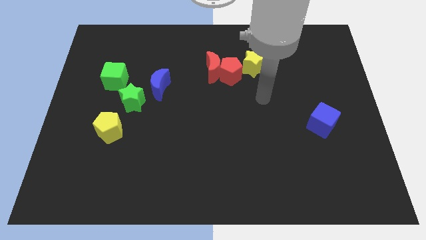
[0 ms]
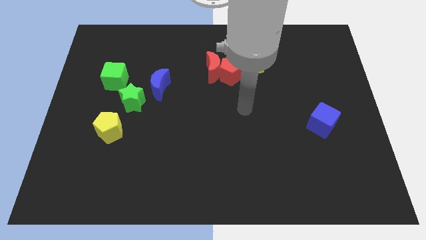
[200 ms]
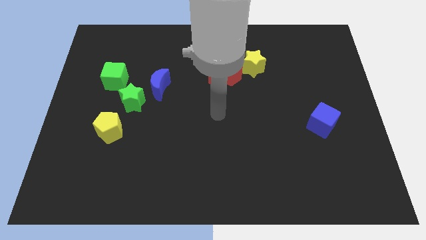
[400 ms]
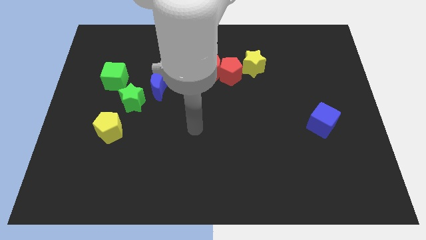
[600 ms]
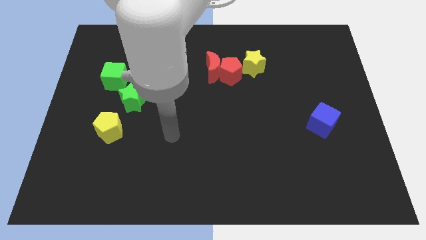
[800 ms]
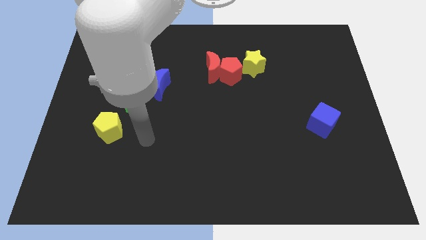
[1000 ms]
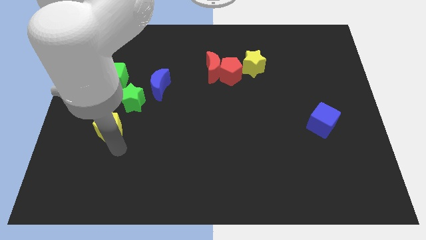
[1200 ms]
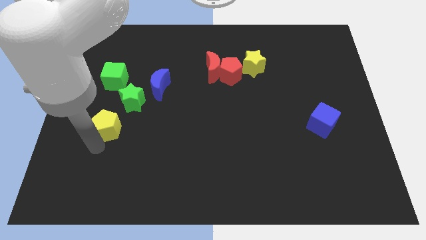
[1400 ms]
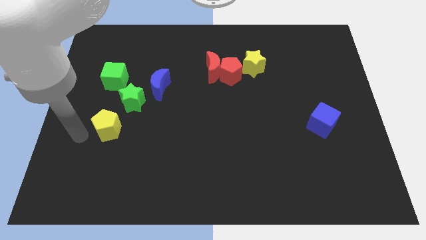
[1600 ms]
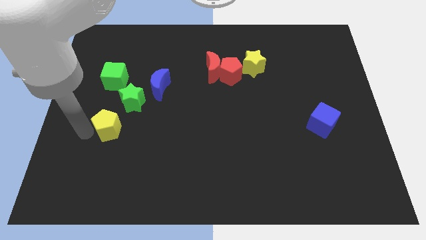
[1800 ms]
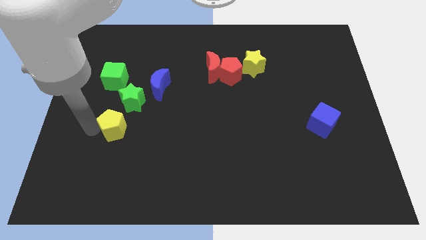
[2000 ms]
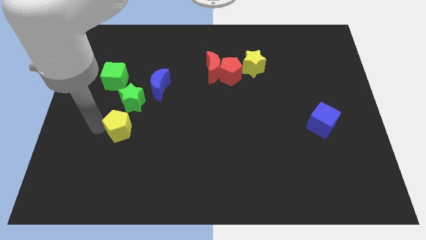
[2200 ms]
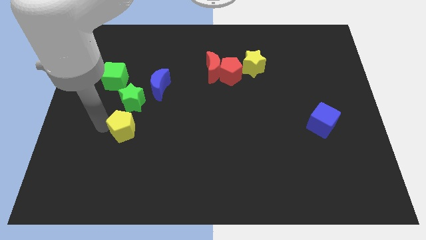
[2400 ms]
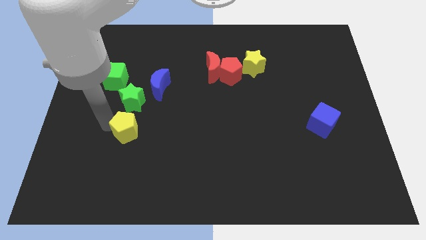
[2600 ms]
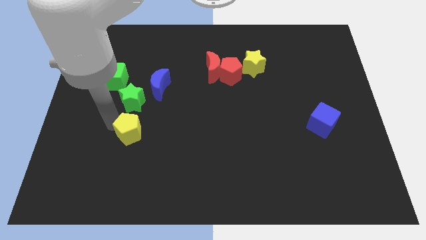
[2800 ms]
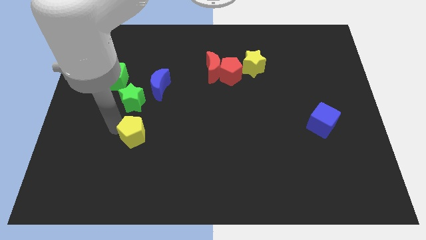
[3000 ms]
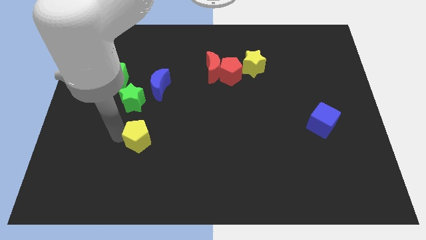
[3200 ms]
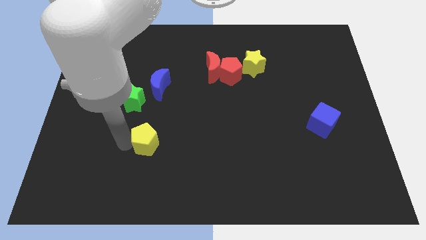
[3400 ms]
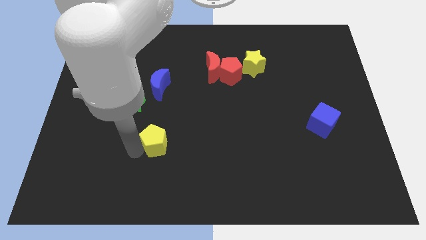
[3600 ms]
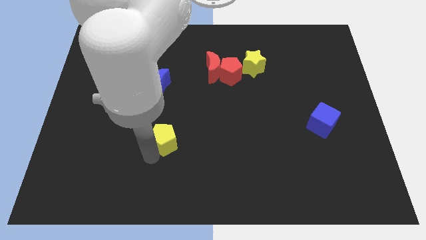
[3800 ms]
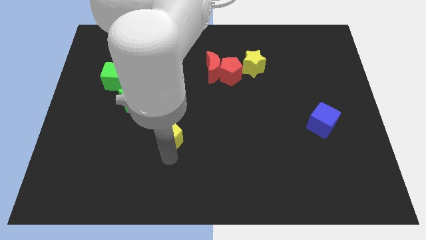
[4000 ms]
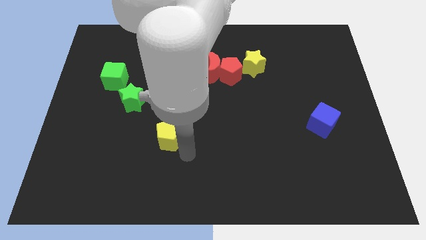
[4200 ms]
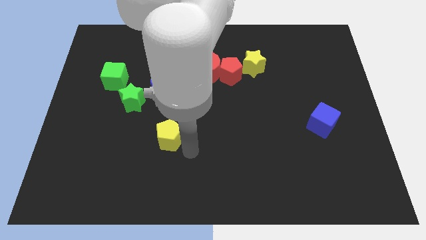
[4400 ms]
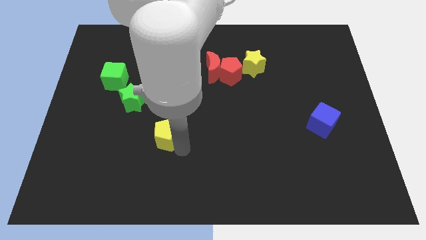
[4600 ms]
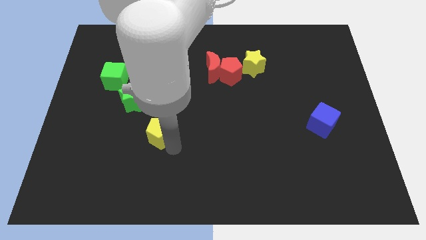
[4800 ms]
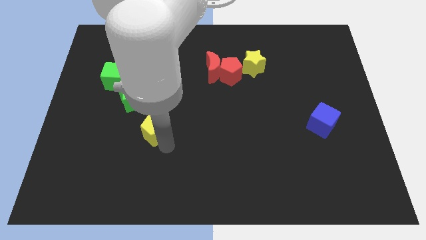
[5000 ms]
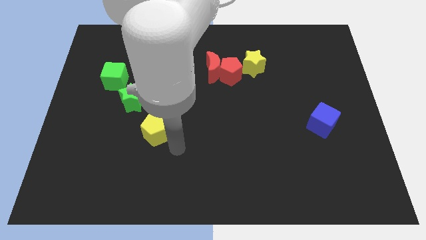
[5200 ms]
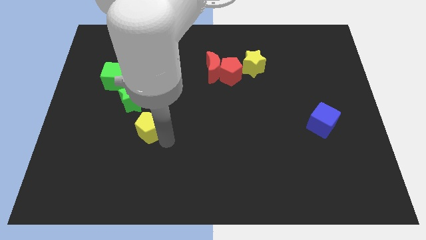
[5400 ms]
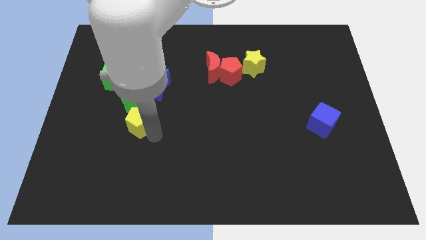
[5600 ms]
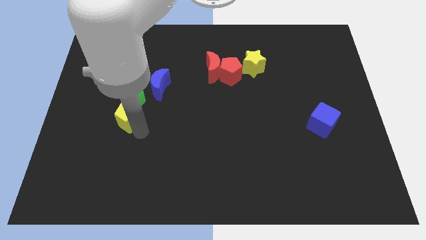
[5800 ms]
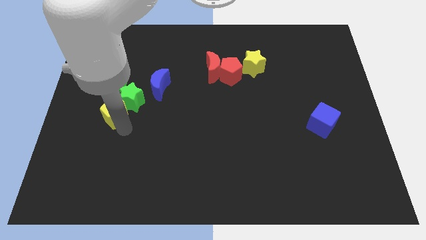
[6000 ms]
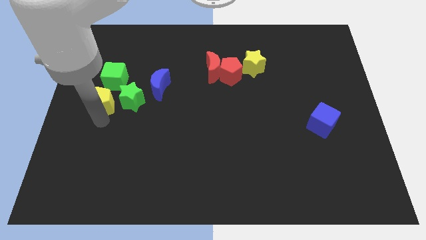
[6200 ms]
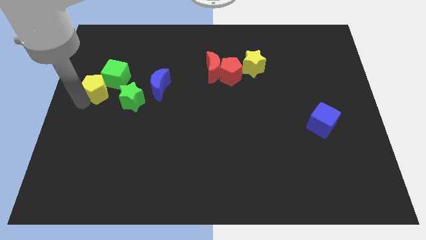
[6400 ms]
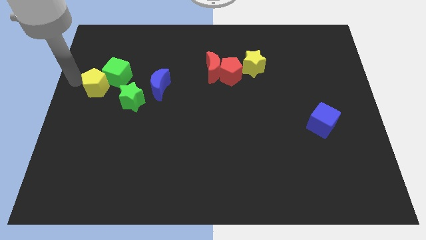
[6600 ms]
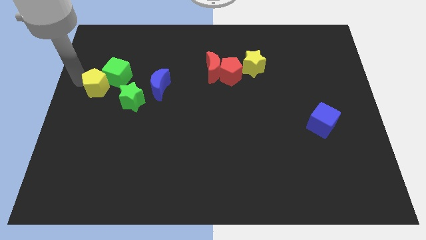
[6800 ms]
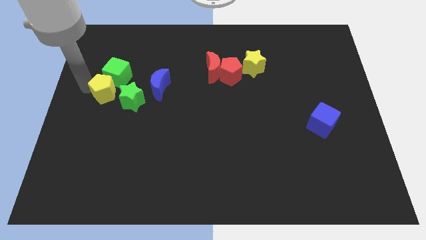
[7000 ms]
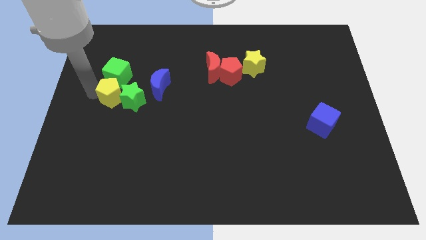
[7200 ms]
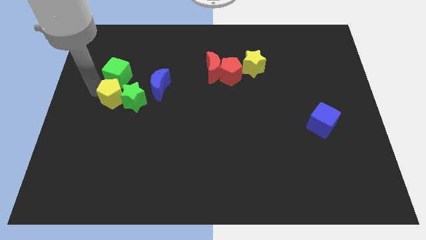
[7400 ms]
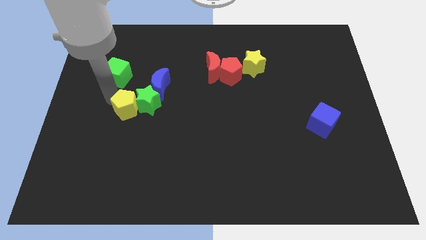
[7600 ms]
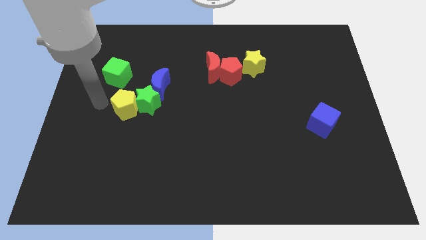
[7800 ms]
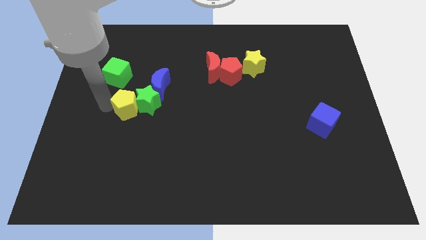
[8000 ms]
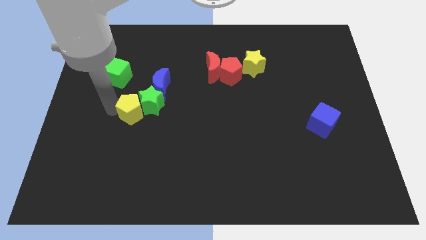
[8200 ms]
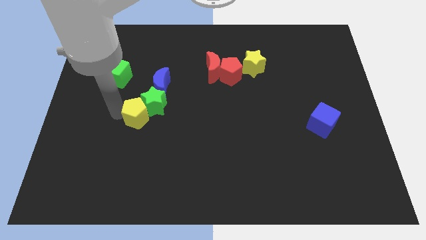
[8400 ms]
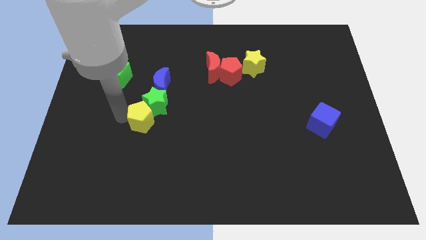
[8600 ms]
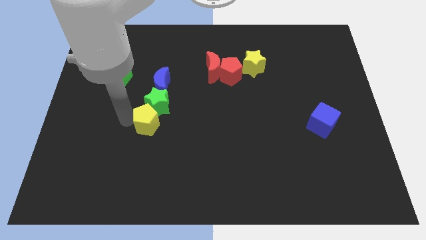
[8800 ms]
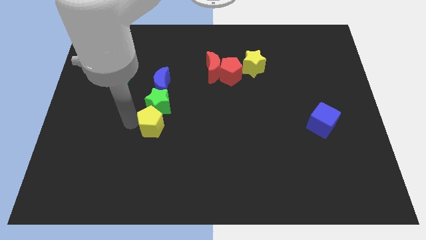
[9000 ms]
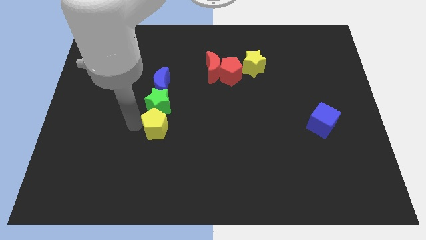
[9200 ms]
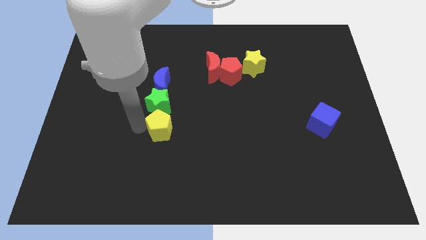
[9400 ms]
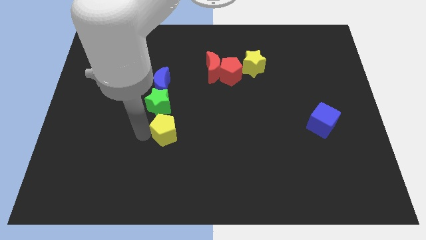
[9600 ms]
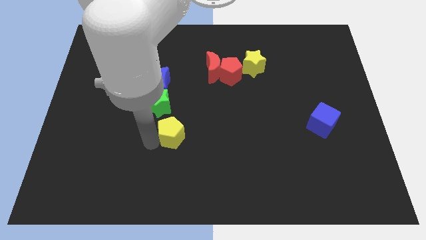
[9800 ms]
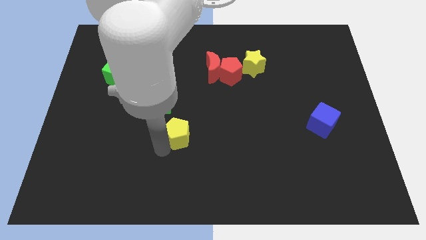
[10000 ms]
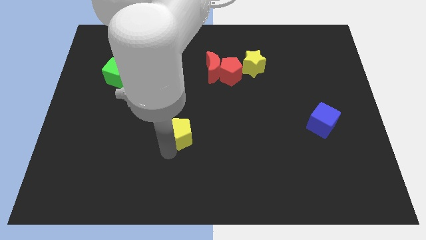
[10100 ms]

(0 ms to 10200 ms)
put the yellow pentagon to the center of the board
